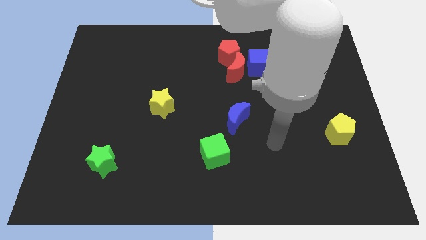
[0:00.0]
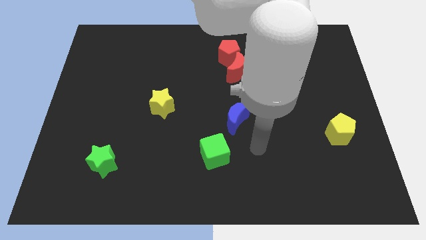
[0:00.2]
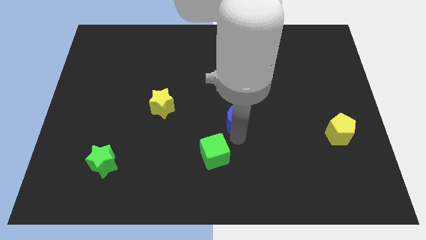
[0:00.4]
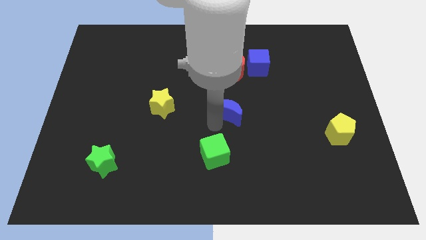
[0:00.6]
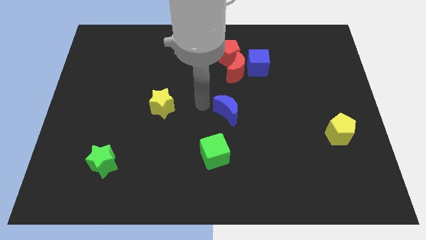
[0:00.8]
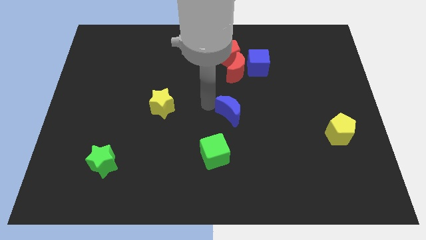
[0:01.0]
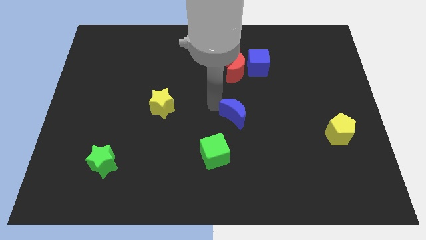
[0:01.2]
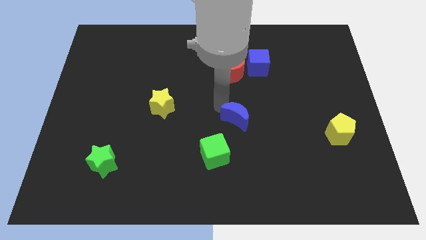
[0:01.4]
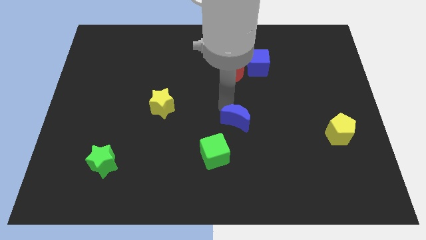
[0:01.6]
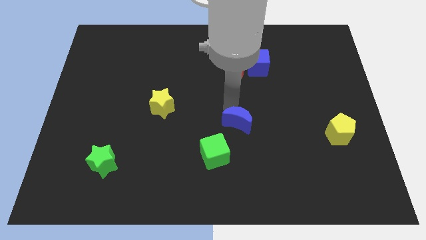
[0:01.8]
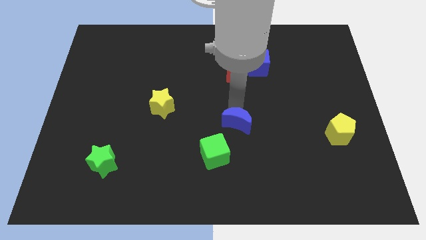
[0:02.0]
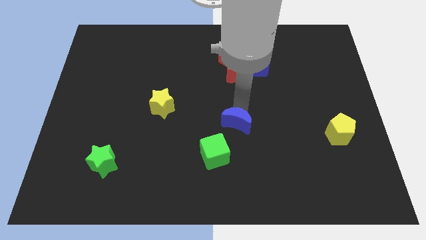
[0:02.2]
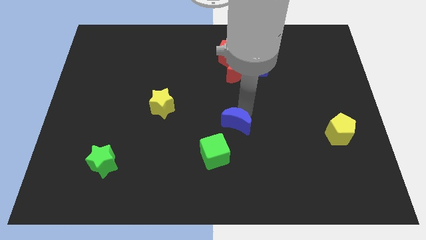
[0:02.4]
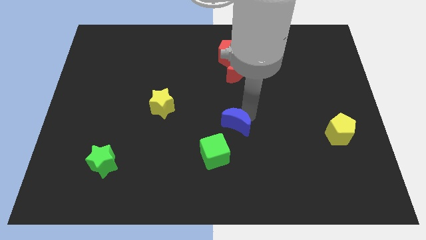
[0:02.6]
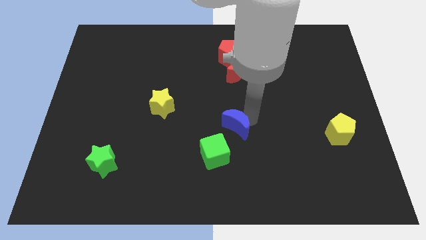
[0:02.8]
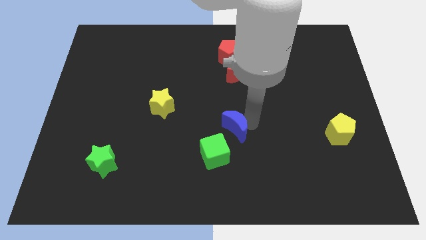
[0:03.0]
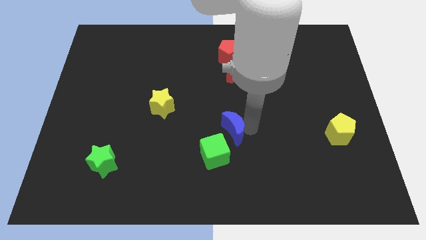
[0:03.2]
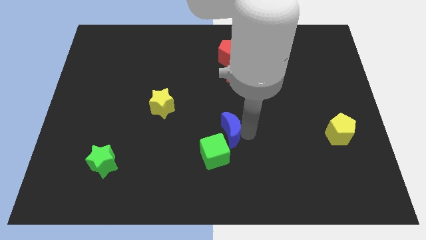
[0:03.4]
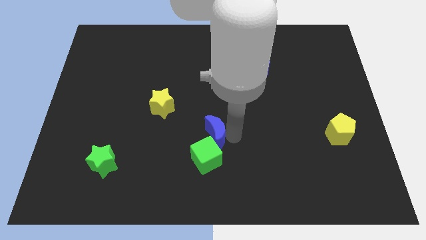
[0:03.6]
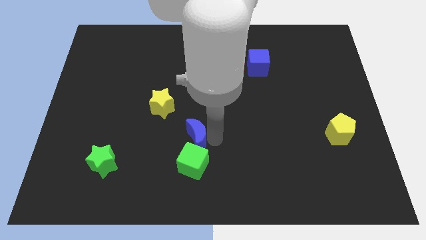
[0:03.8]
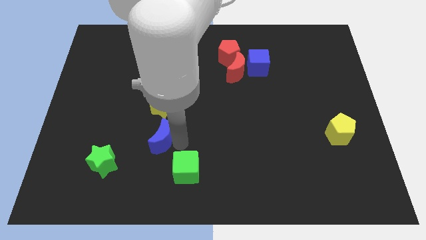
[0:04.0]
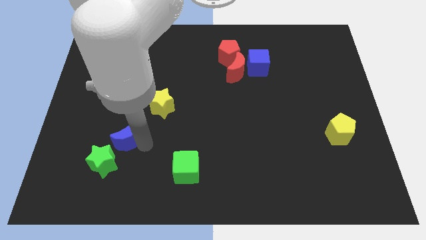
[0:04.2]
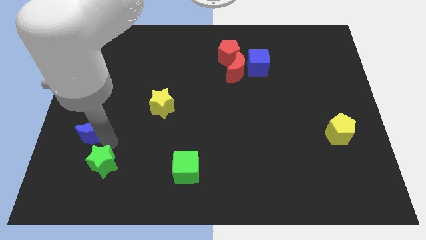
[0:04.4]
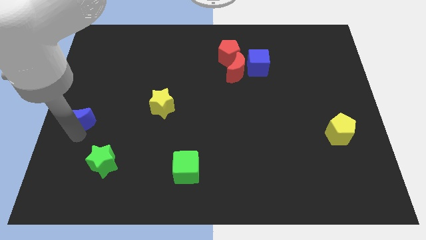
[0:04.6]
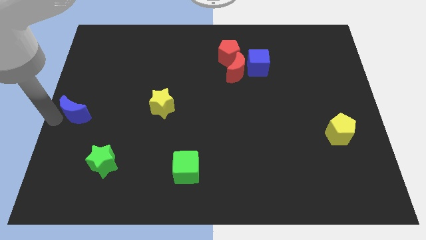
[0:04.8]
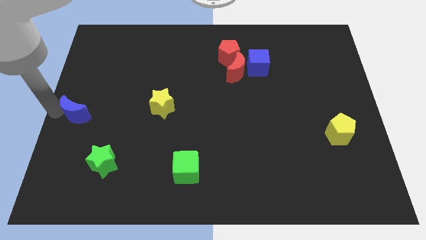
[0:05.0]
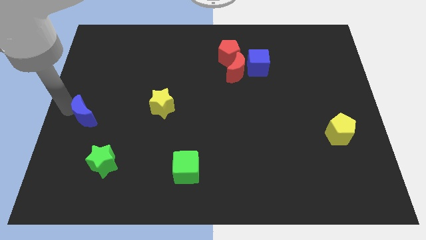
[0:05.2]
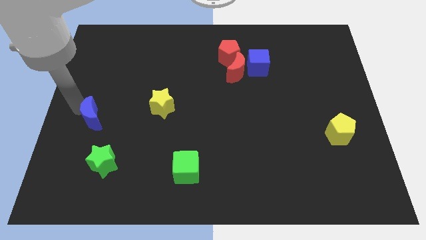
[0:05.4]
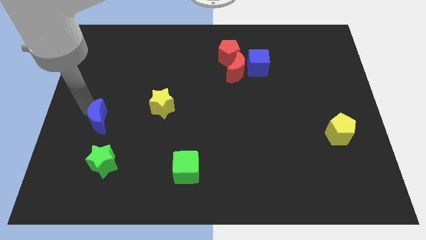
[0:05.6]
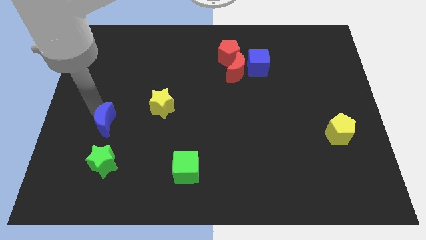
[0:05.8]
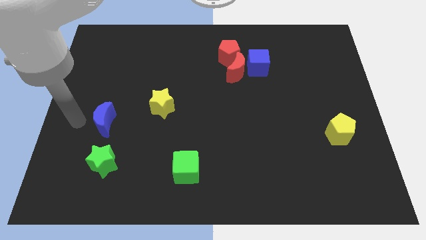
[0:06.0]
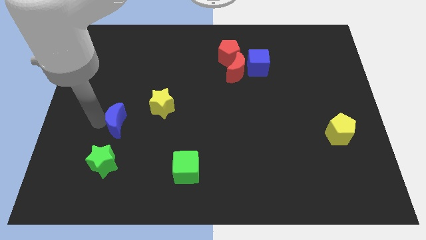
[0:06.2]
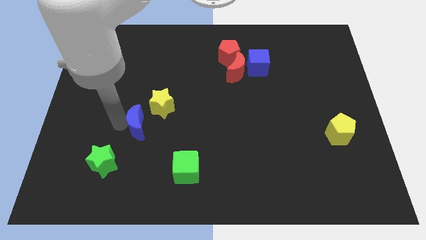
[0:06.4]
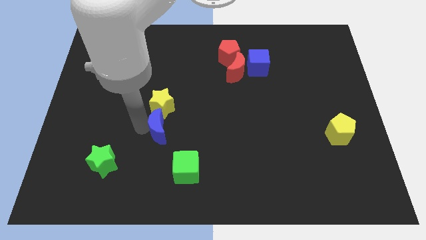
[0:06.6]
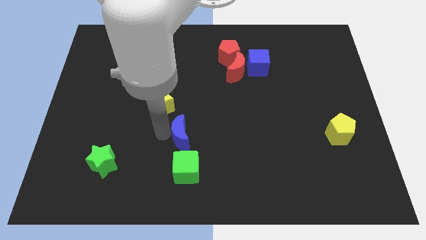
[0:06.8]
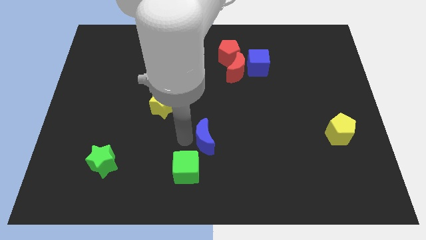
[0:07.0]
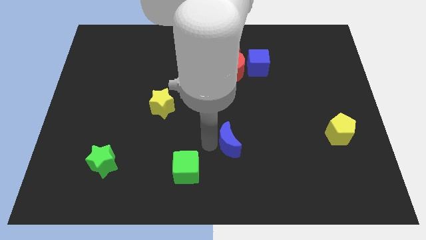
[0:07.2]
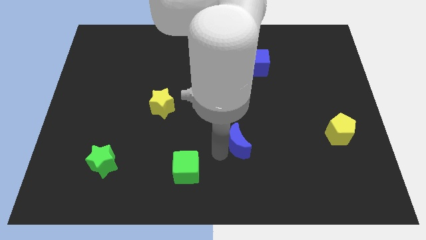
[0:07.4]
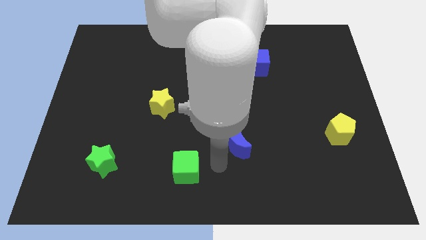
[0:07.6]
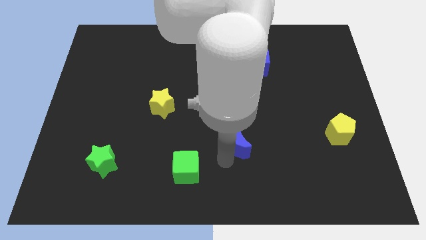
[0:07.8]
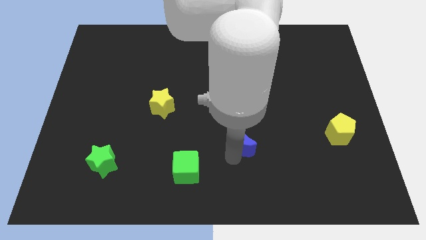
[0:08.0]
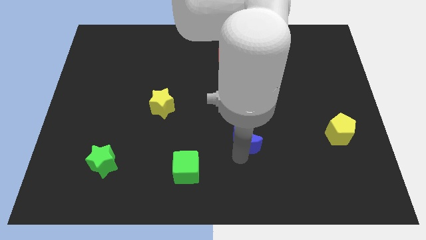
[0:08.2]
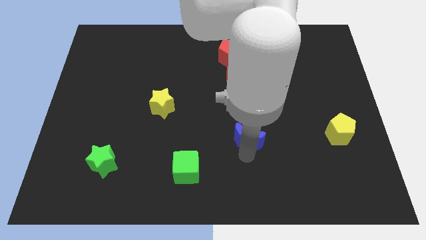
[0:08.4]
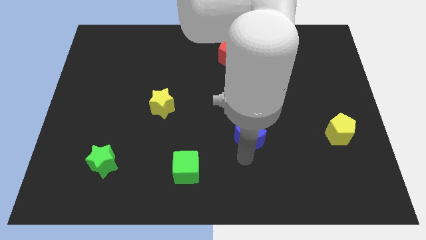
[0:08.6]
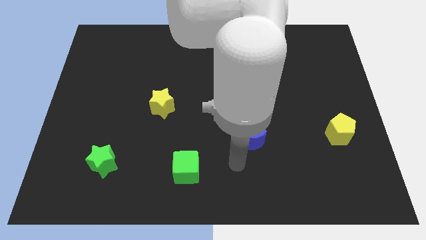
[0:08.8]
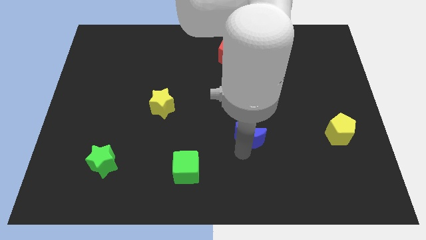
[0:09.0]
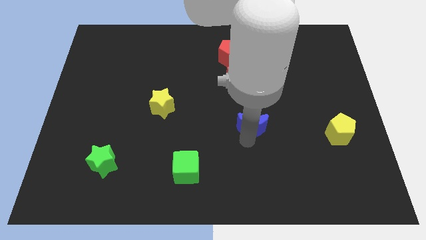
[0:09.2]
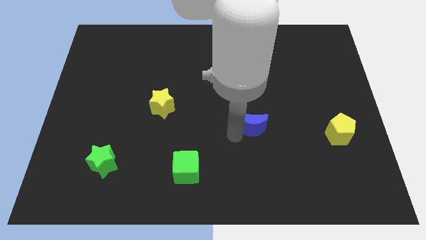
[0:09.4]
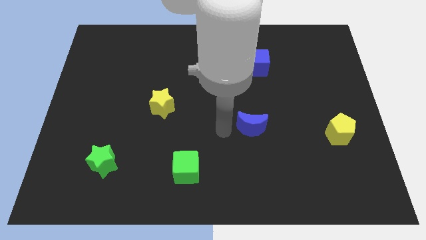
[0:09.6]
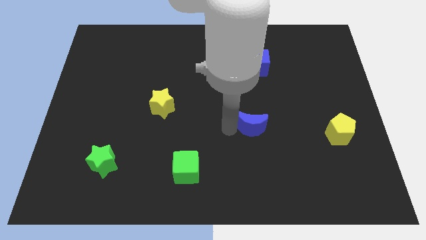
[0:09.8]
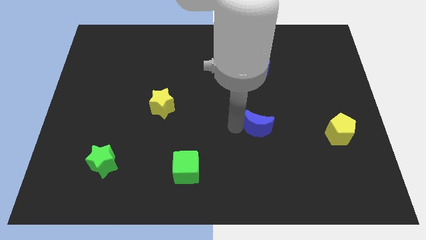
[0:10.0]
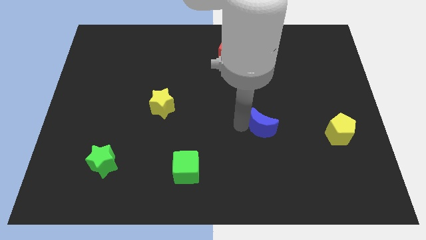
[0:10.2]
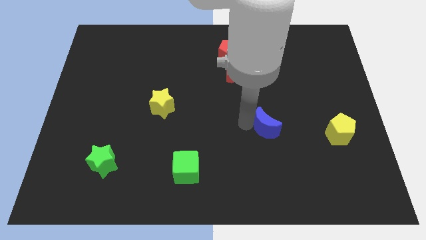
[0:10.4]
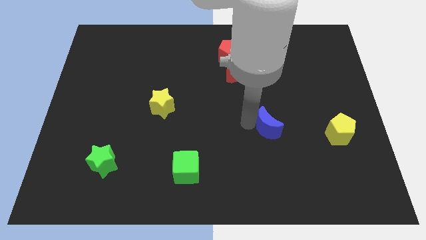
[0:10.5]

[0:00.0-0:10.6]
move the blue moon slightly right

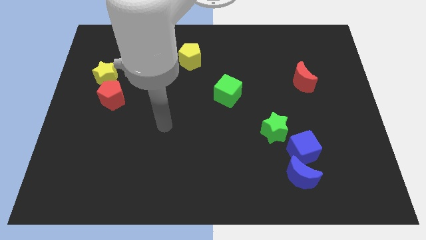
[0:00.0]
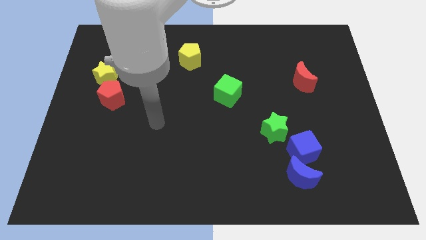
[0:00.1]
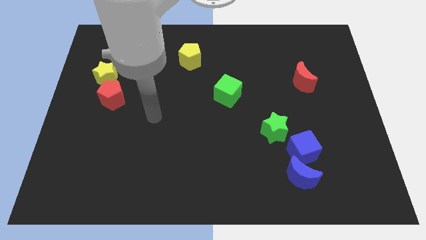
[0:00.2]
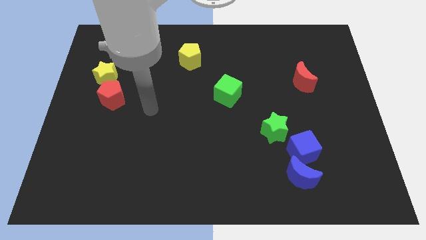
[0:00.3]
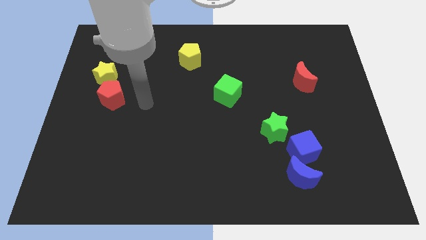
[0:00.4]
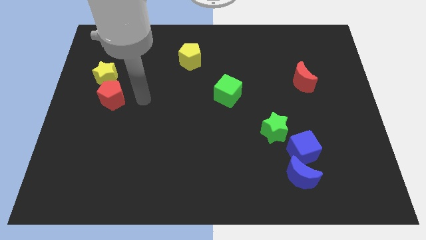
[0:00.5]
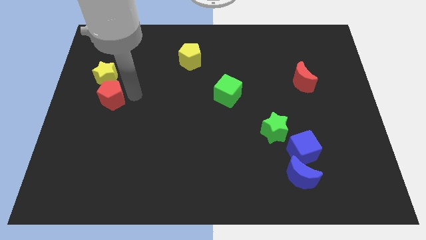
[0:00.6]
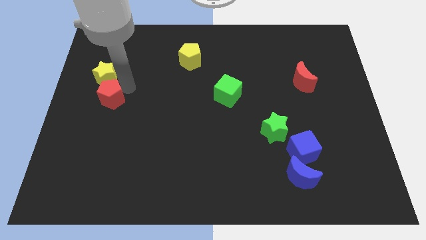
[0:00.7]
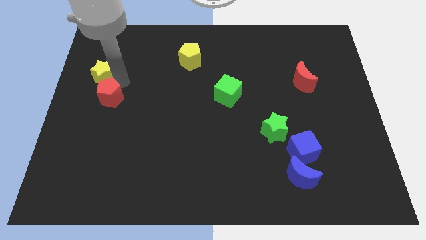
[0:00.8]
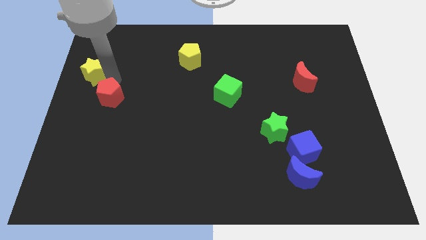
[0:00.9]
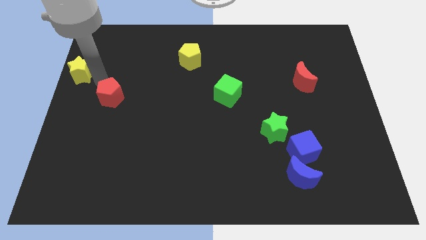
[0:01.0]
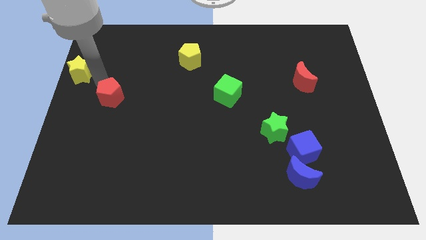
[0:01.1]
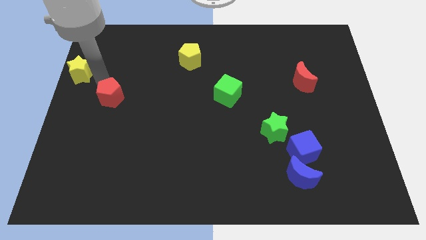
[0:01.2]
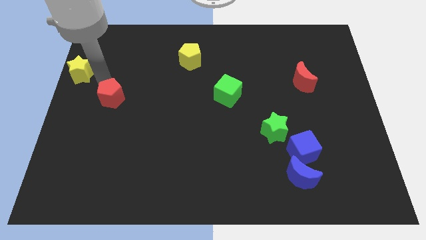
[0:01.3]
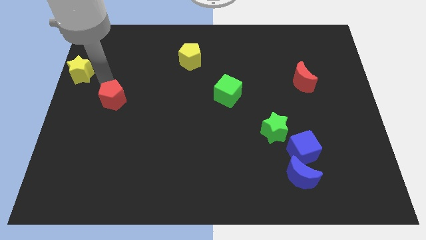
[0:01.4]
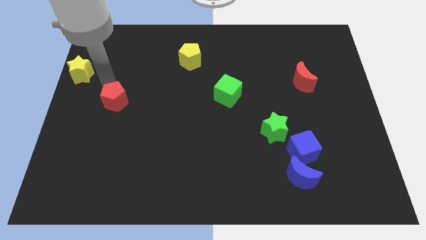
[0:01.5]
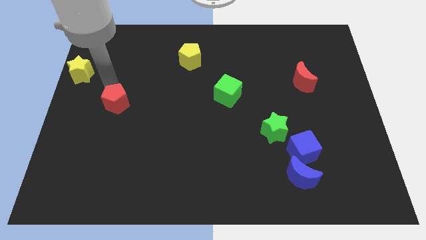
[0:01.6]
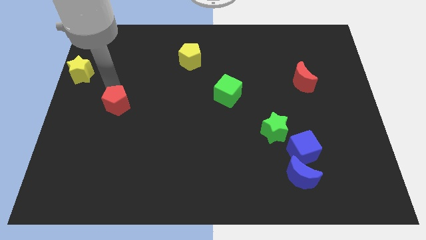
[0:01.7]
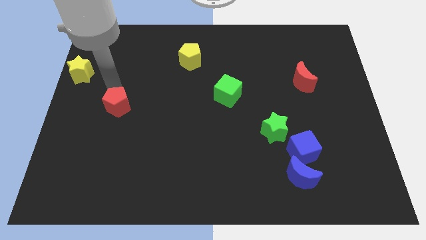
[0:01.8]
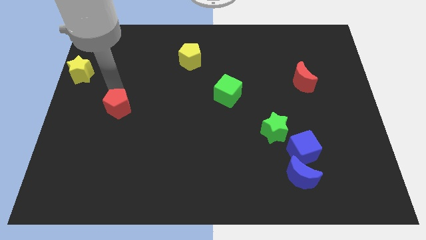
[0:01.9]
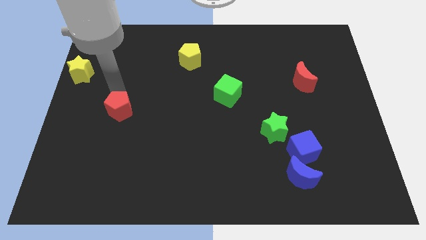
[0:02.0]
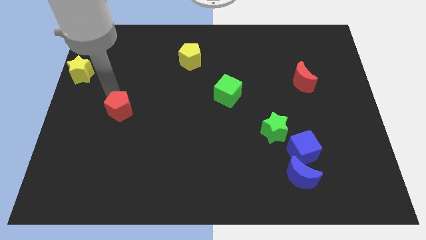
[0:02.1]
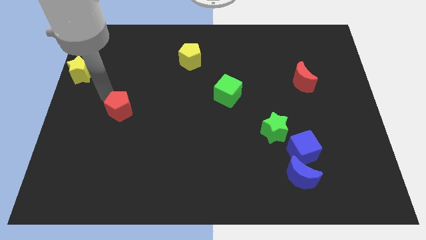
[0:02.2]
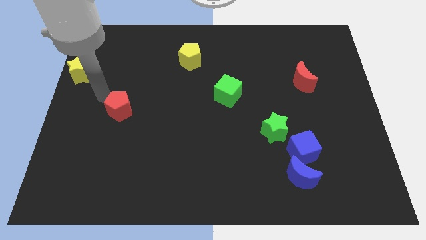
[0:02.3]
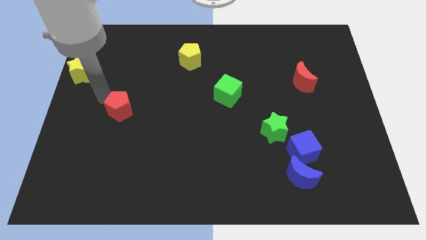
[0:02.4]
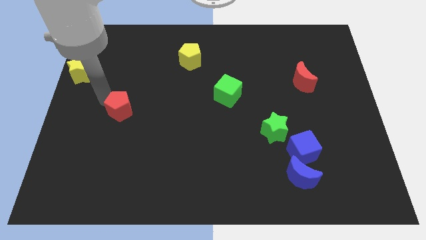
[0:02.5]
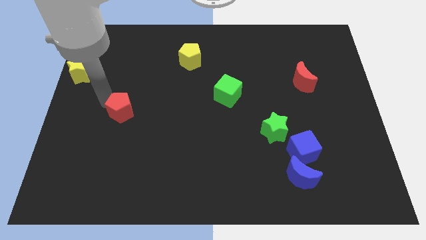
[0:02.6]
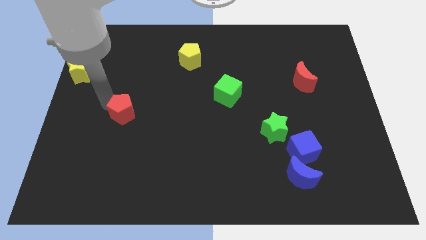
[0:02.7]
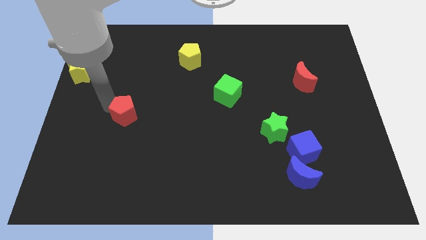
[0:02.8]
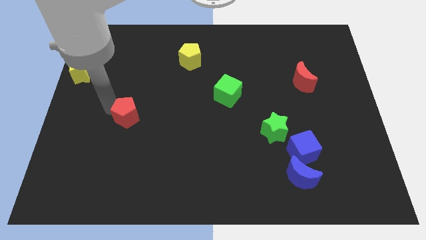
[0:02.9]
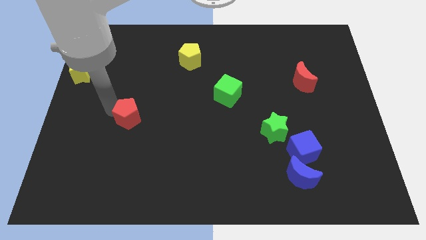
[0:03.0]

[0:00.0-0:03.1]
slide the red pentagon down and right diagonally a little
